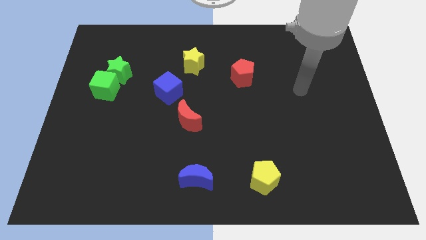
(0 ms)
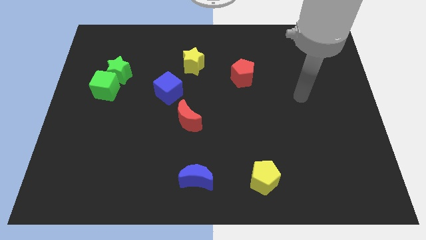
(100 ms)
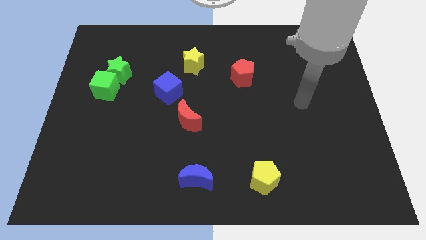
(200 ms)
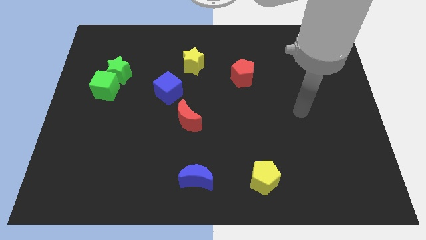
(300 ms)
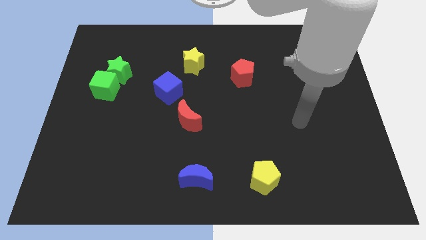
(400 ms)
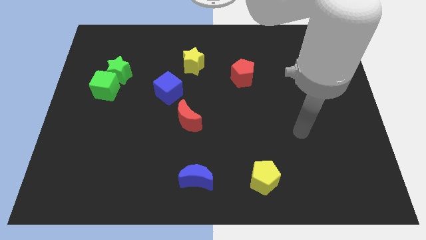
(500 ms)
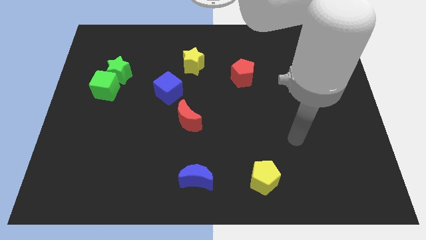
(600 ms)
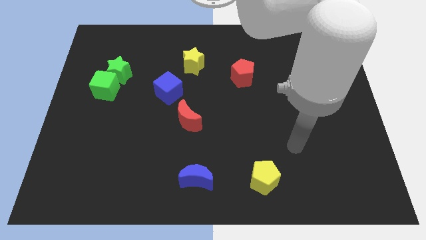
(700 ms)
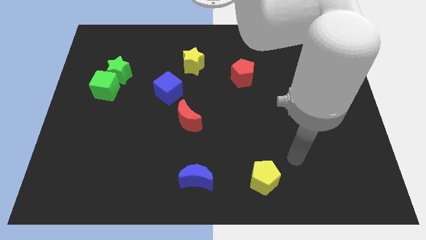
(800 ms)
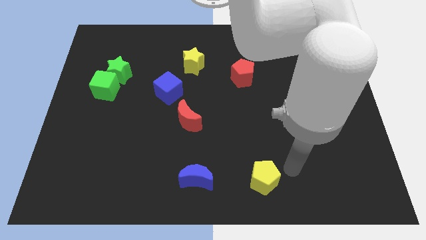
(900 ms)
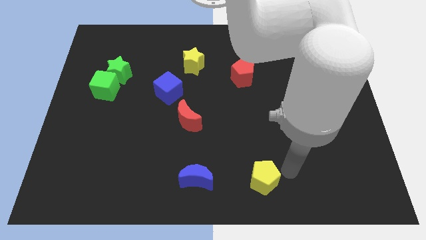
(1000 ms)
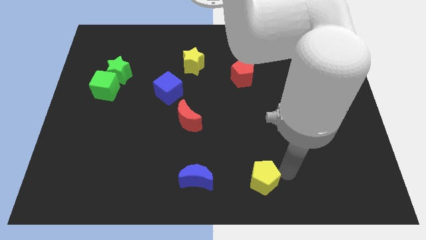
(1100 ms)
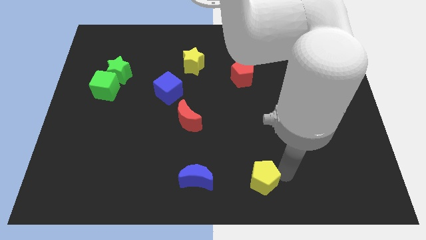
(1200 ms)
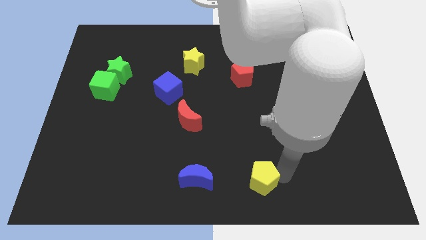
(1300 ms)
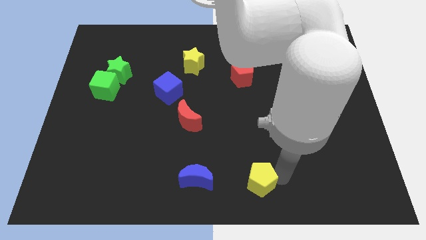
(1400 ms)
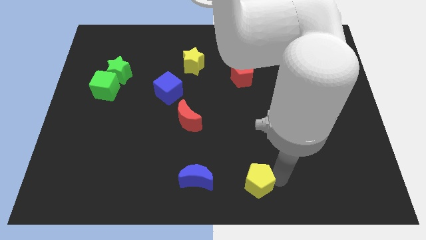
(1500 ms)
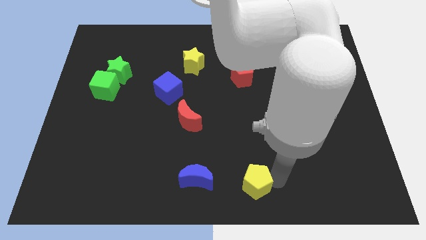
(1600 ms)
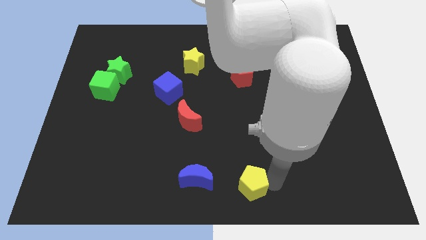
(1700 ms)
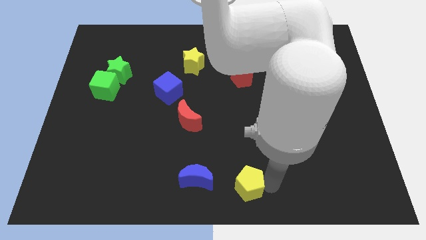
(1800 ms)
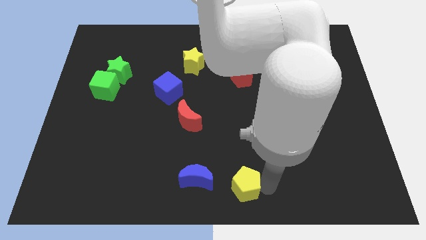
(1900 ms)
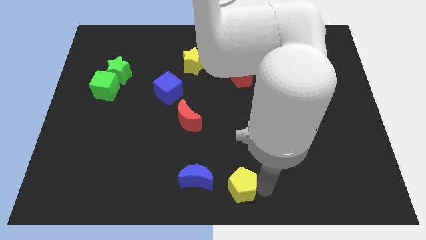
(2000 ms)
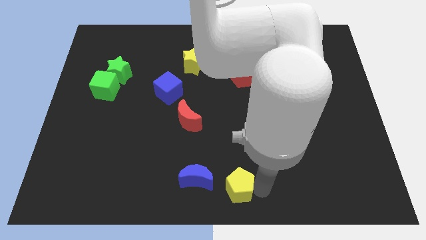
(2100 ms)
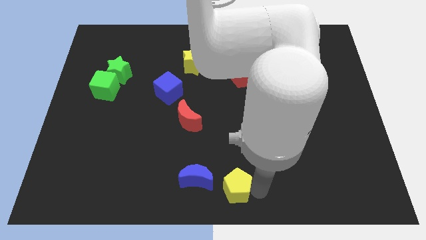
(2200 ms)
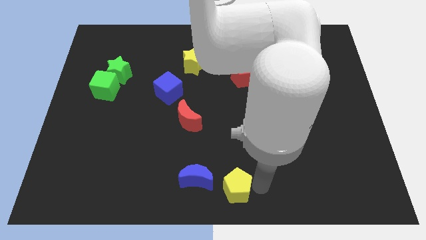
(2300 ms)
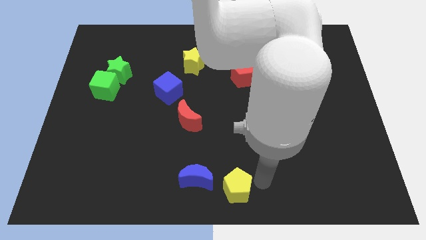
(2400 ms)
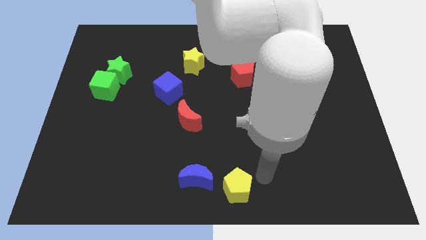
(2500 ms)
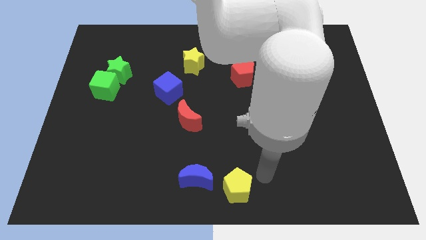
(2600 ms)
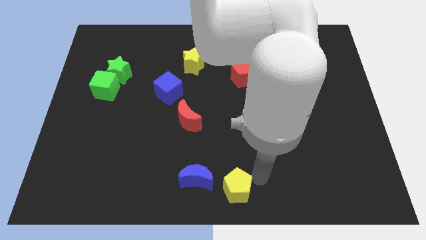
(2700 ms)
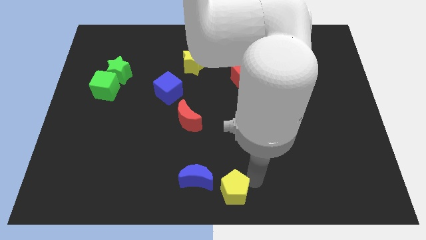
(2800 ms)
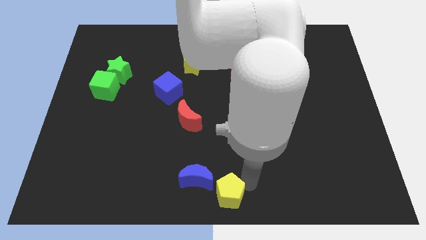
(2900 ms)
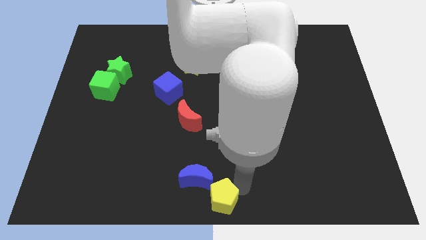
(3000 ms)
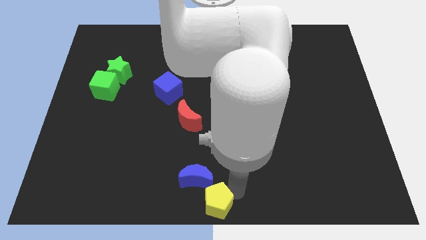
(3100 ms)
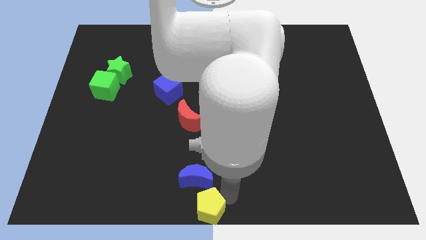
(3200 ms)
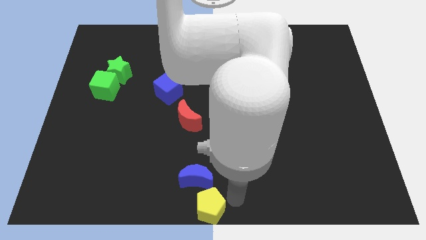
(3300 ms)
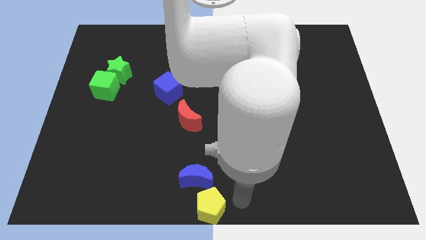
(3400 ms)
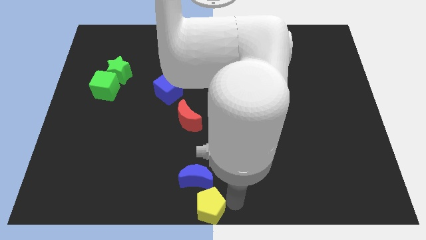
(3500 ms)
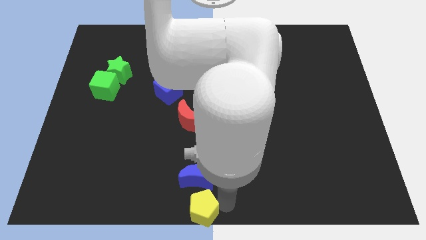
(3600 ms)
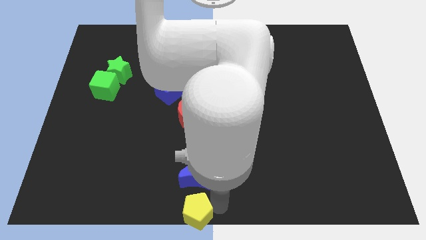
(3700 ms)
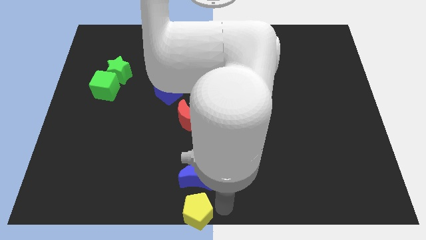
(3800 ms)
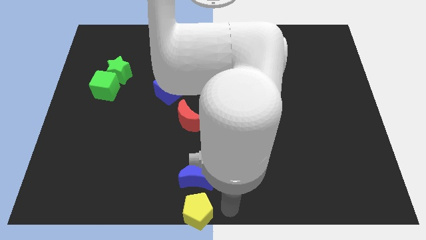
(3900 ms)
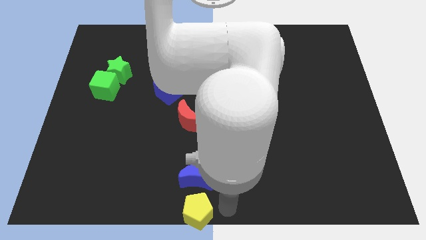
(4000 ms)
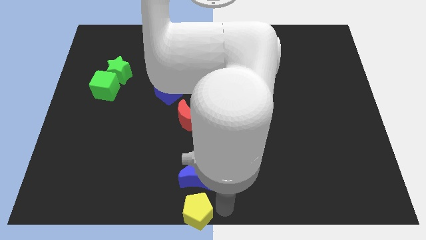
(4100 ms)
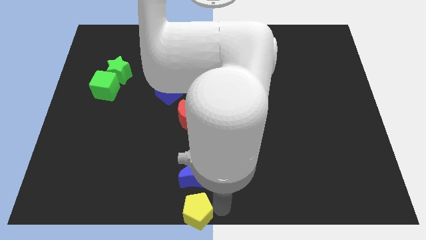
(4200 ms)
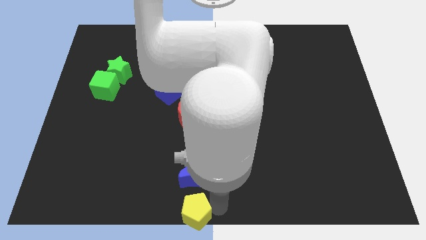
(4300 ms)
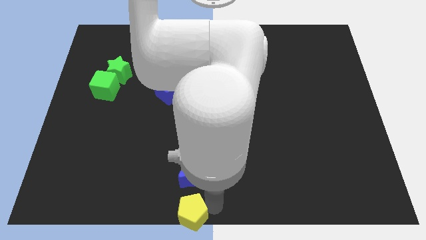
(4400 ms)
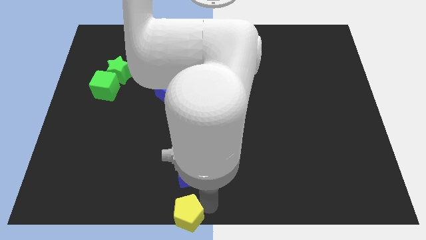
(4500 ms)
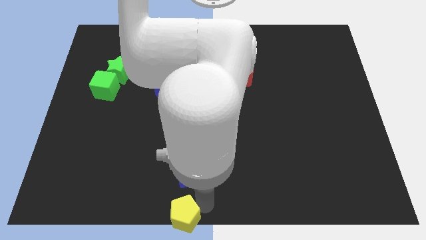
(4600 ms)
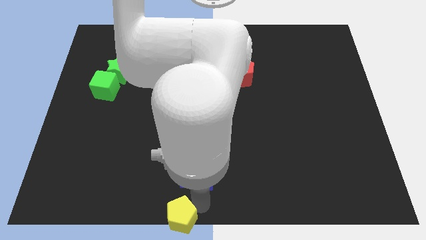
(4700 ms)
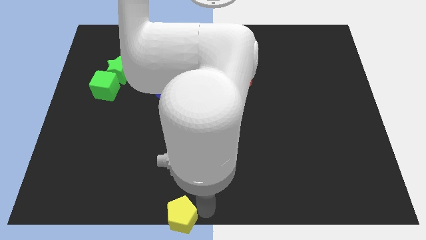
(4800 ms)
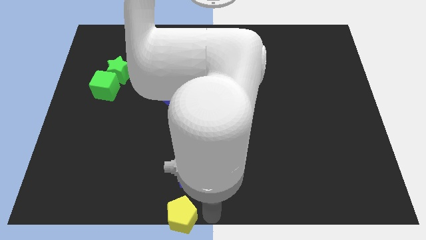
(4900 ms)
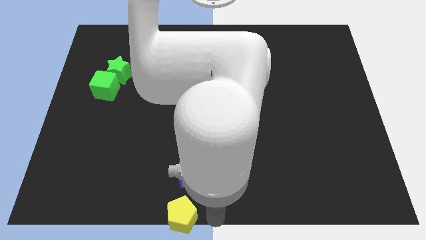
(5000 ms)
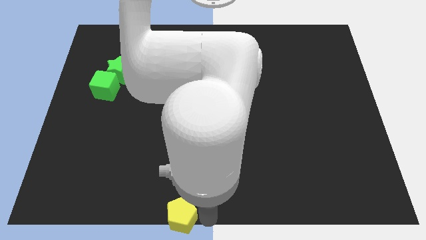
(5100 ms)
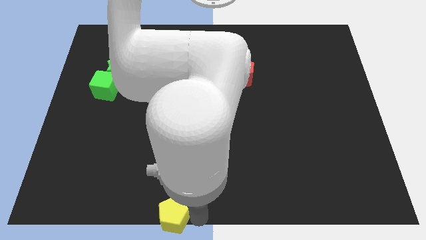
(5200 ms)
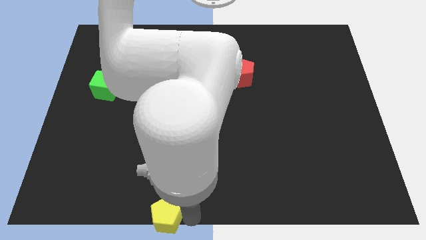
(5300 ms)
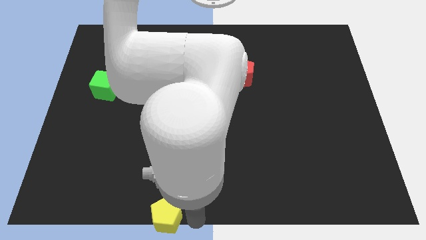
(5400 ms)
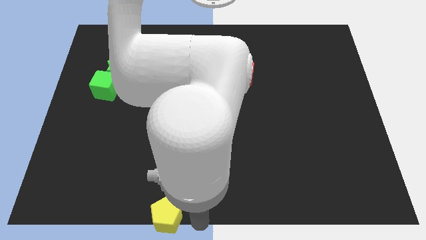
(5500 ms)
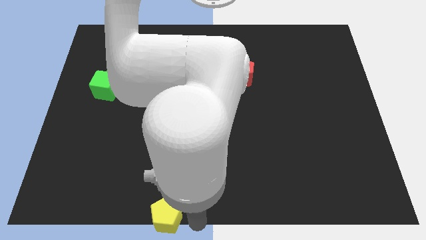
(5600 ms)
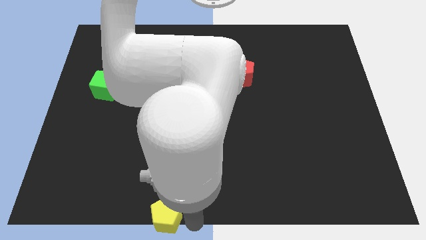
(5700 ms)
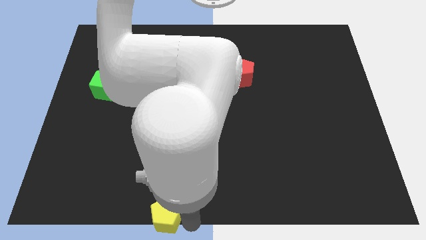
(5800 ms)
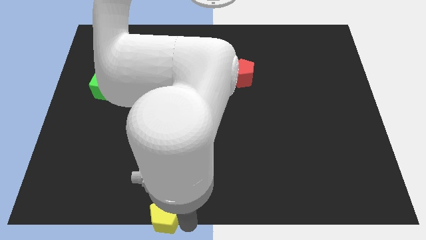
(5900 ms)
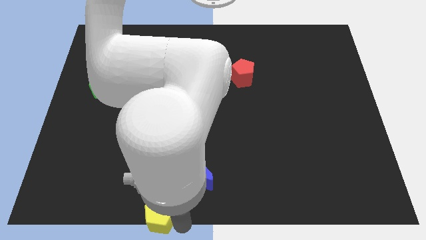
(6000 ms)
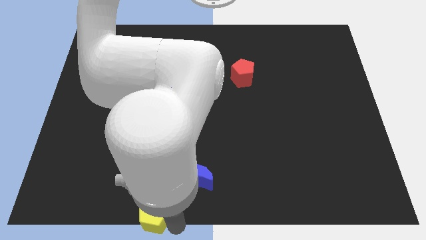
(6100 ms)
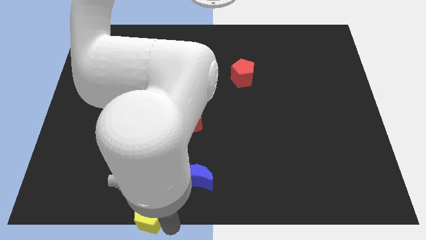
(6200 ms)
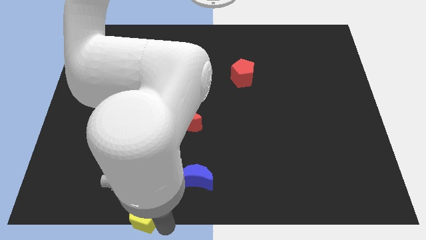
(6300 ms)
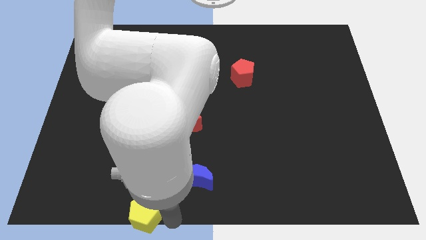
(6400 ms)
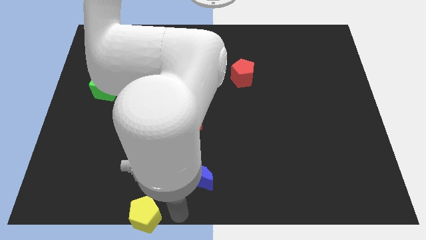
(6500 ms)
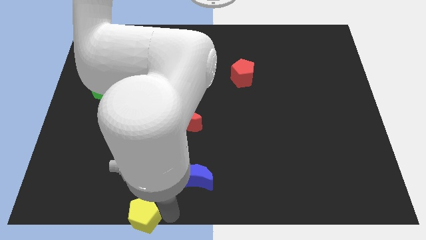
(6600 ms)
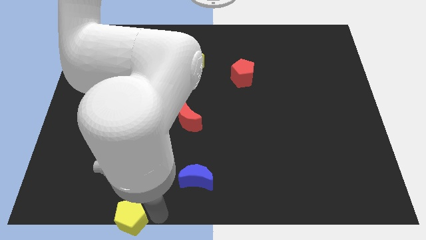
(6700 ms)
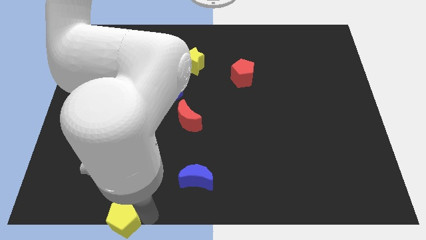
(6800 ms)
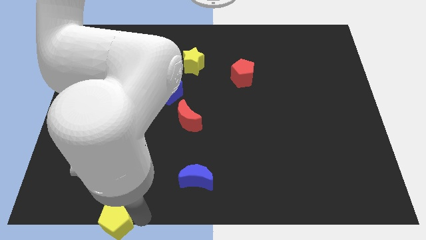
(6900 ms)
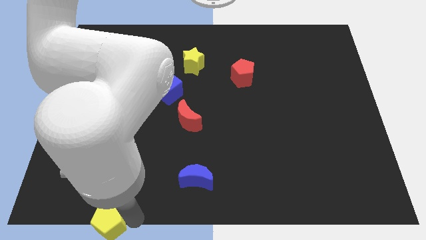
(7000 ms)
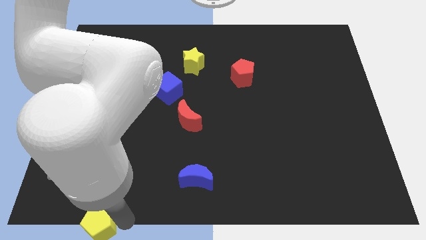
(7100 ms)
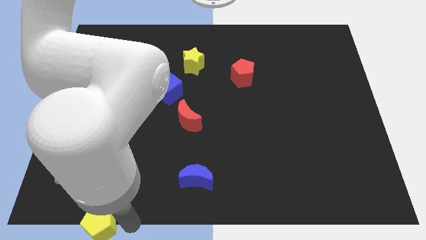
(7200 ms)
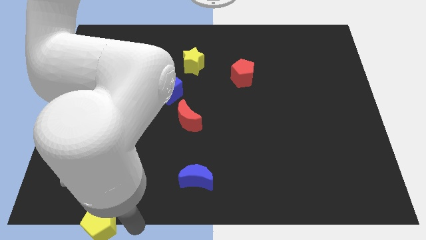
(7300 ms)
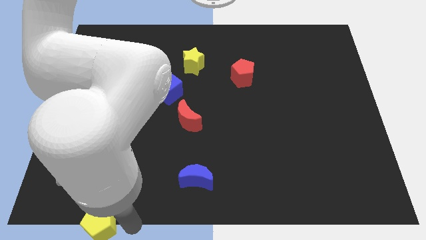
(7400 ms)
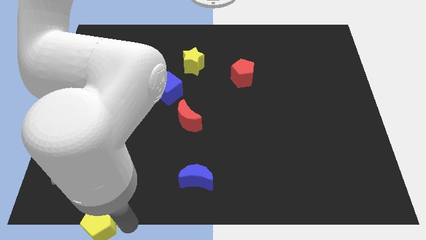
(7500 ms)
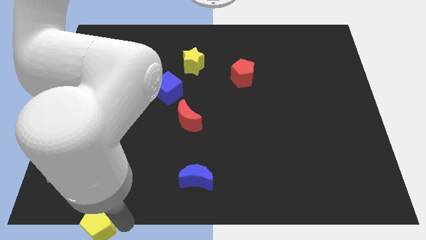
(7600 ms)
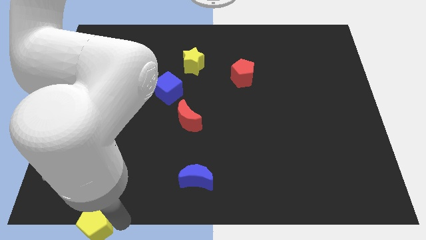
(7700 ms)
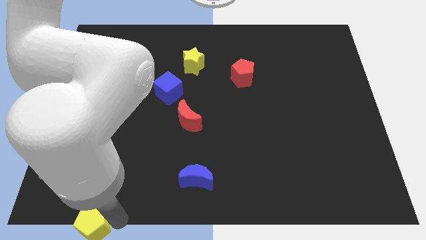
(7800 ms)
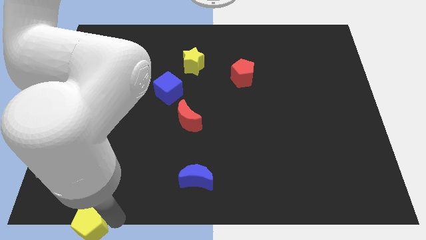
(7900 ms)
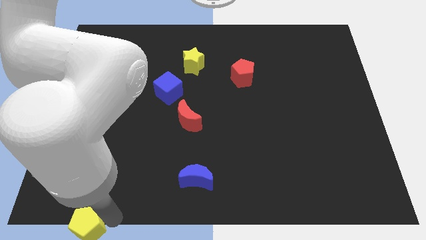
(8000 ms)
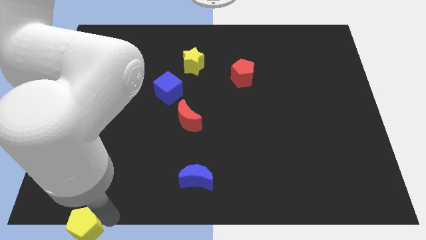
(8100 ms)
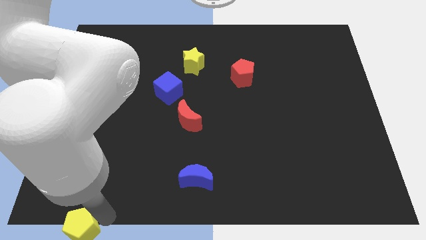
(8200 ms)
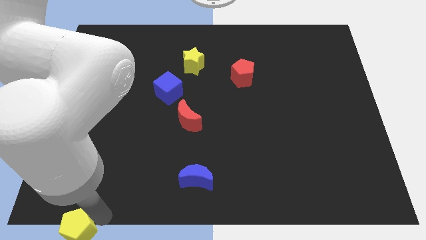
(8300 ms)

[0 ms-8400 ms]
slide the yellow pentagon to the bottom left of the board
